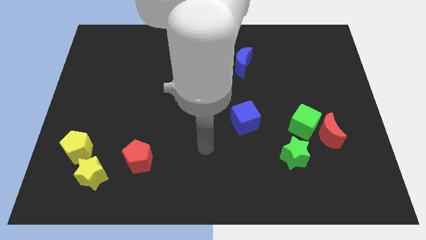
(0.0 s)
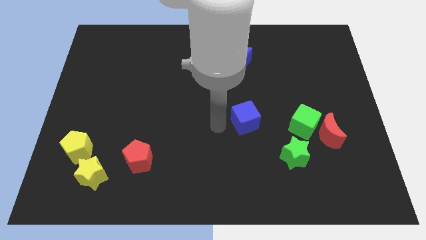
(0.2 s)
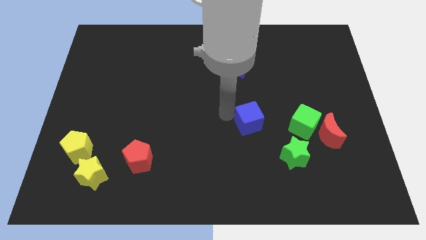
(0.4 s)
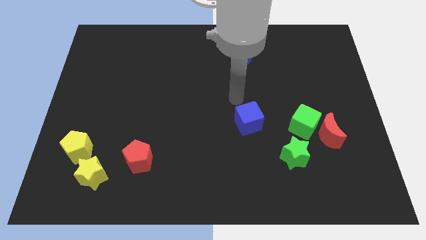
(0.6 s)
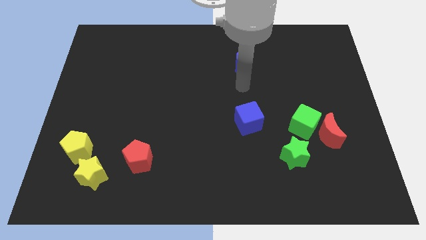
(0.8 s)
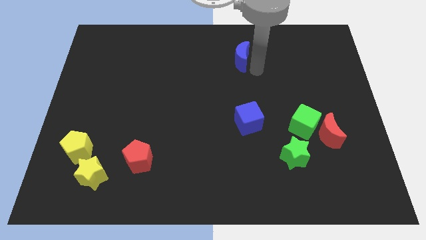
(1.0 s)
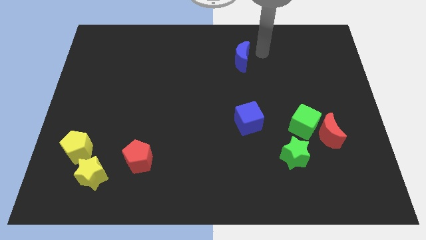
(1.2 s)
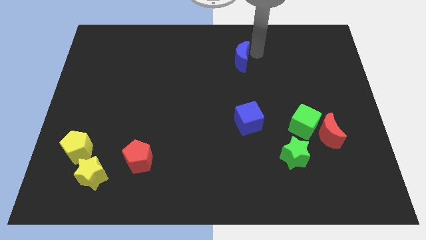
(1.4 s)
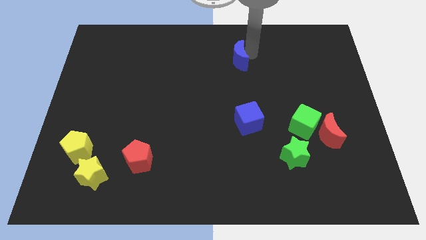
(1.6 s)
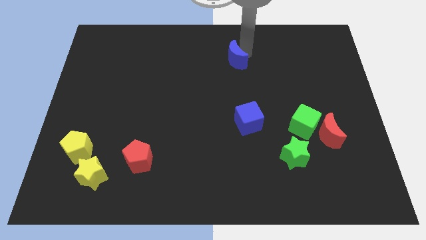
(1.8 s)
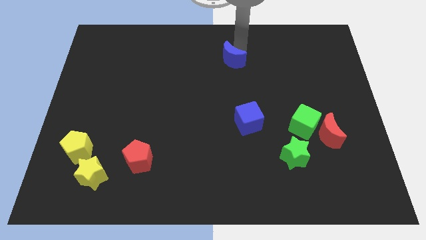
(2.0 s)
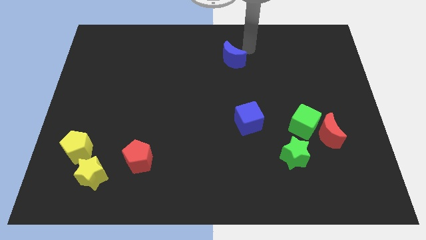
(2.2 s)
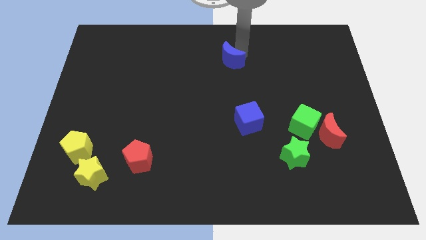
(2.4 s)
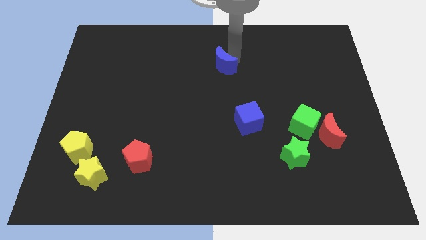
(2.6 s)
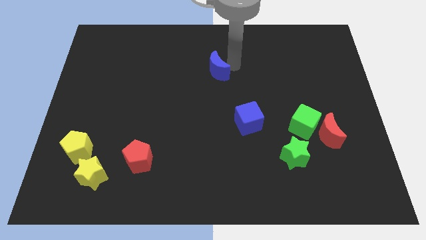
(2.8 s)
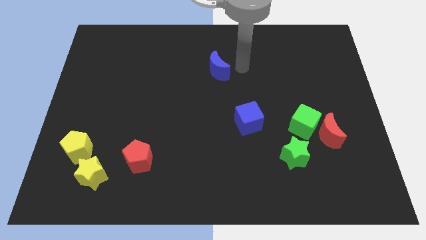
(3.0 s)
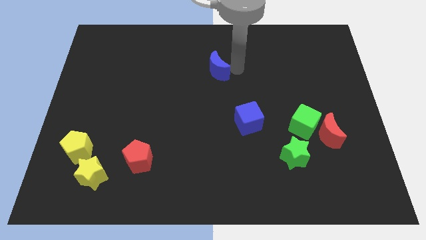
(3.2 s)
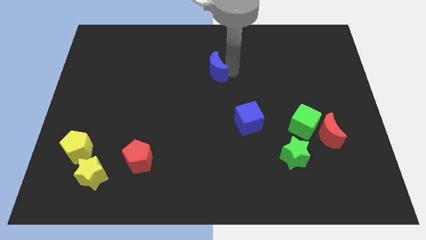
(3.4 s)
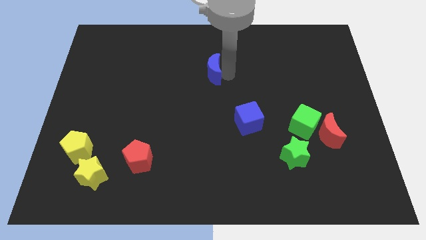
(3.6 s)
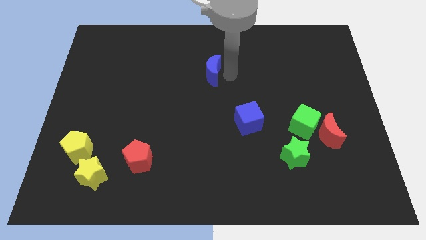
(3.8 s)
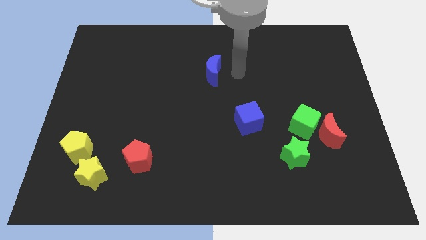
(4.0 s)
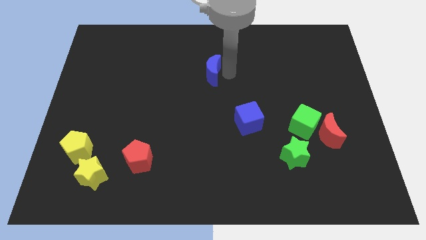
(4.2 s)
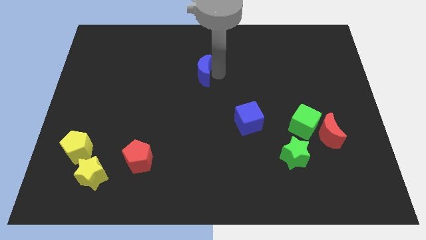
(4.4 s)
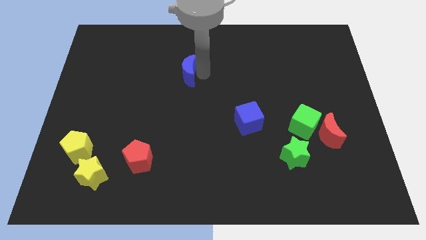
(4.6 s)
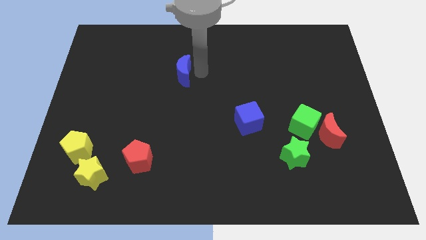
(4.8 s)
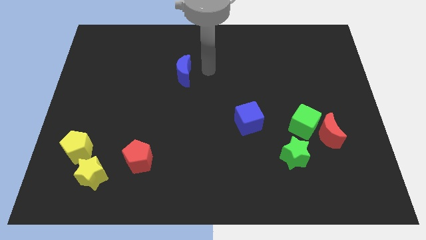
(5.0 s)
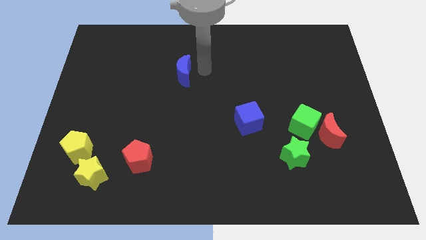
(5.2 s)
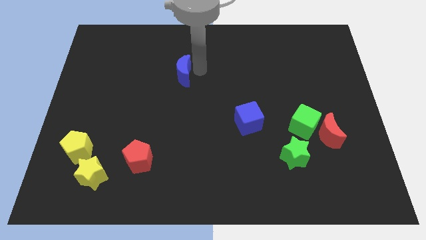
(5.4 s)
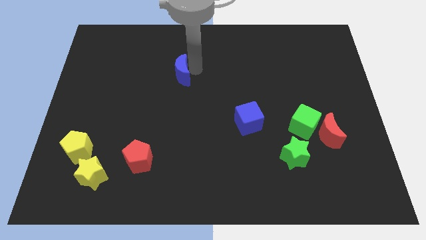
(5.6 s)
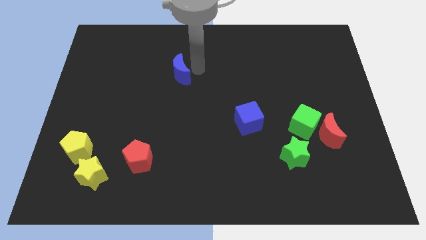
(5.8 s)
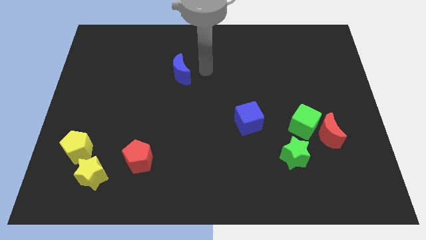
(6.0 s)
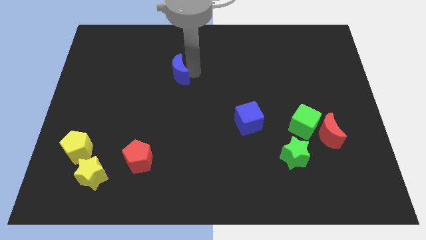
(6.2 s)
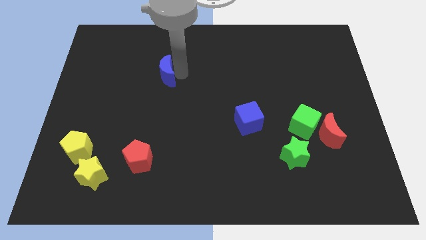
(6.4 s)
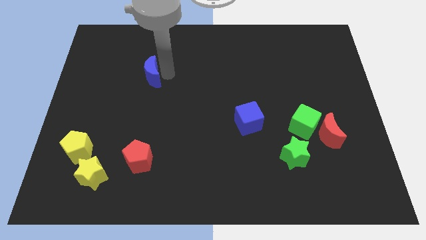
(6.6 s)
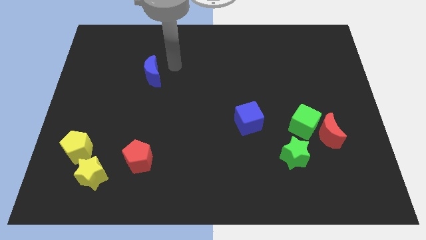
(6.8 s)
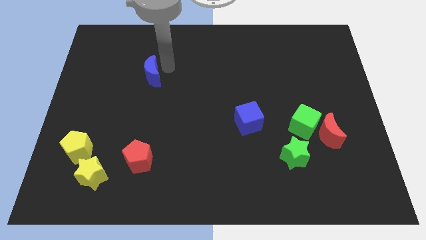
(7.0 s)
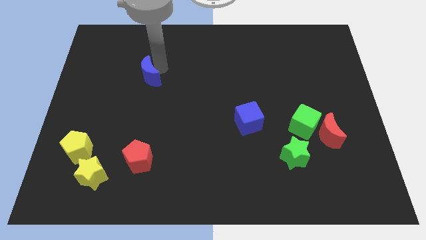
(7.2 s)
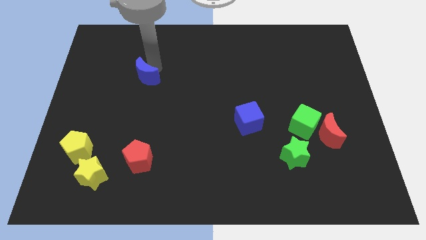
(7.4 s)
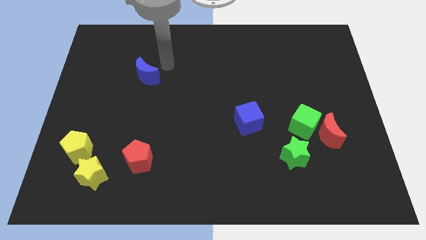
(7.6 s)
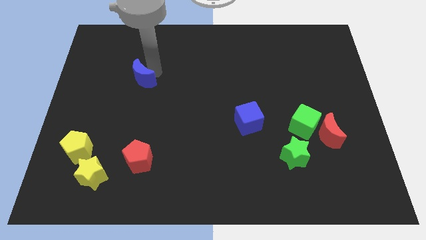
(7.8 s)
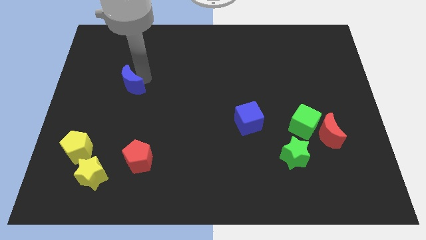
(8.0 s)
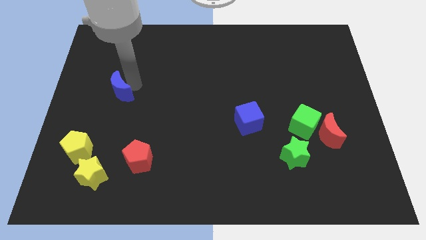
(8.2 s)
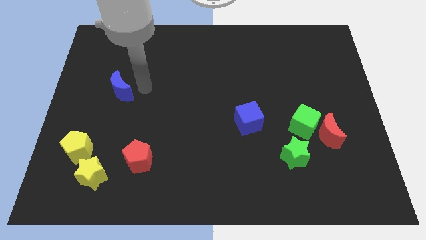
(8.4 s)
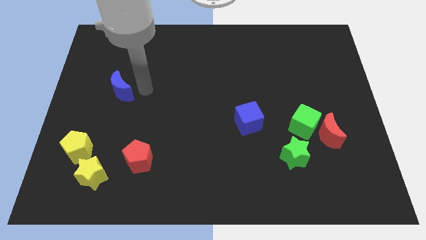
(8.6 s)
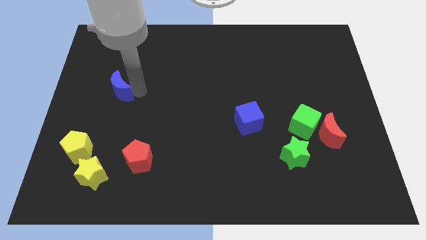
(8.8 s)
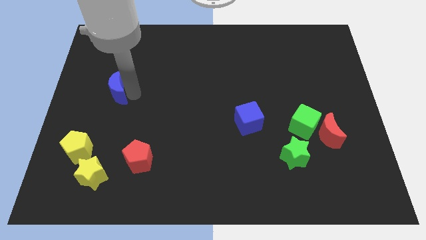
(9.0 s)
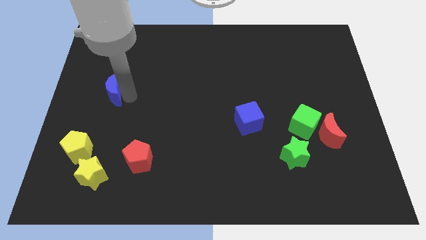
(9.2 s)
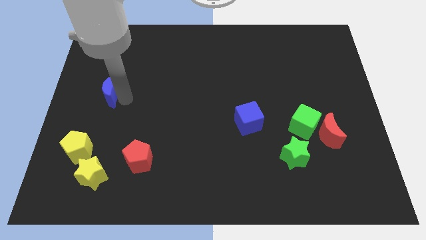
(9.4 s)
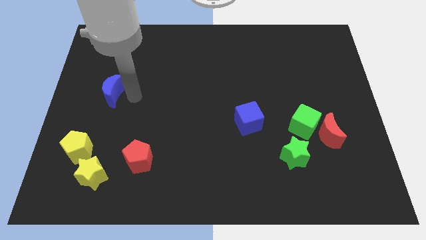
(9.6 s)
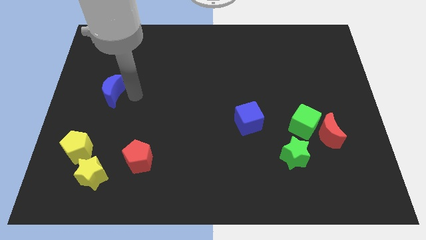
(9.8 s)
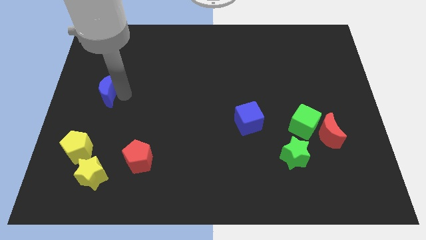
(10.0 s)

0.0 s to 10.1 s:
move the blue moon to the center left

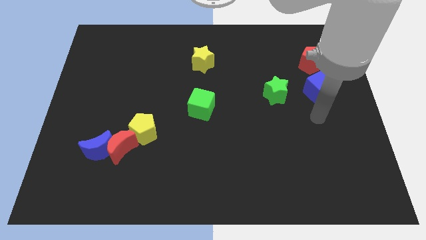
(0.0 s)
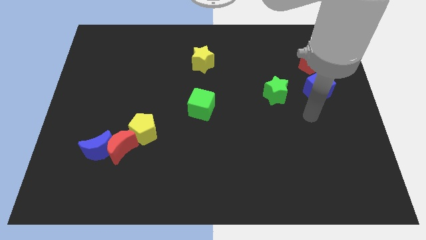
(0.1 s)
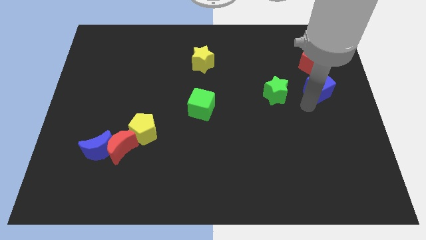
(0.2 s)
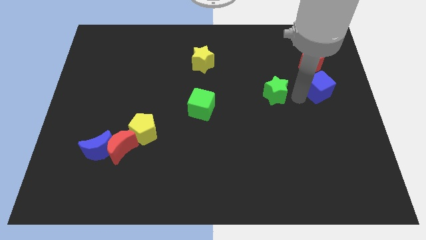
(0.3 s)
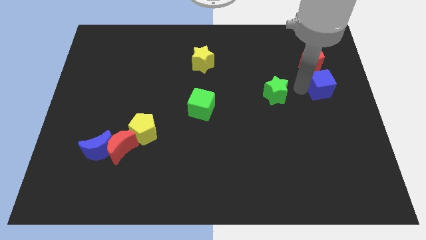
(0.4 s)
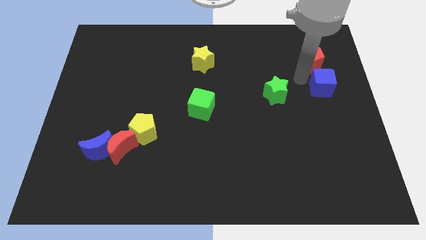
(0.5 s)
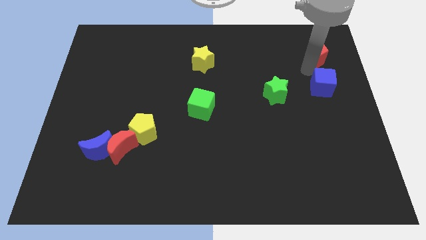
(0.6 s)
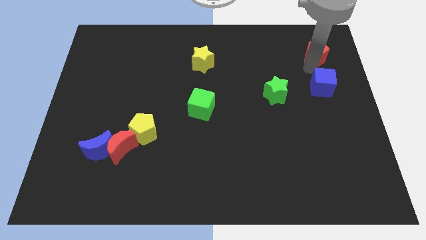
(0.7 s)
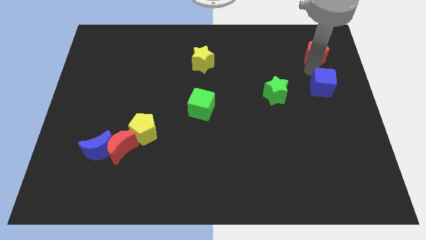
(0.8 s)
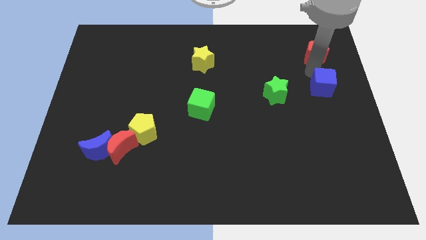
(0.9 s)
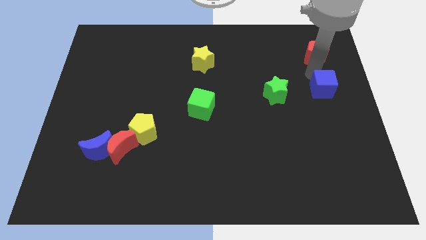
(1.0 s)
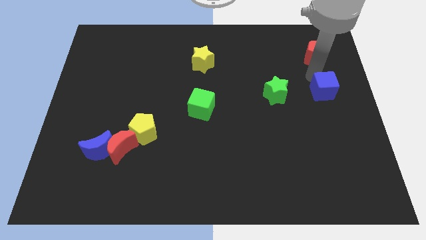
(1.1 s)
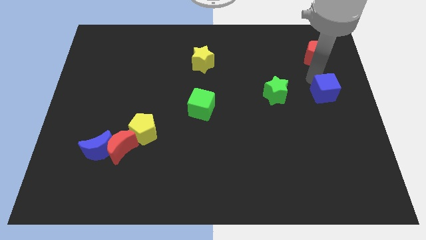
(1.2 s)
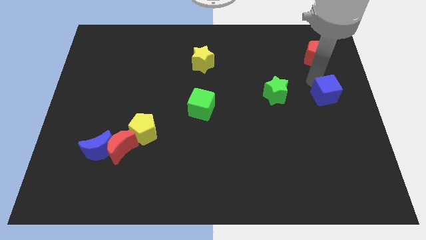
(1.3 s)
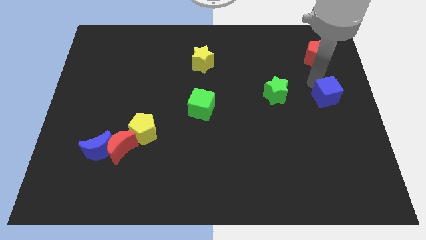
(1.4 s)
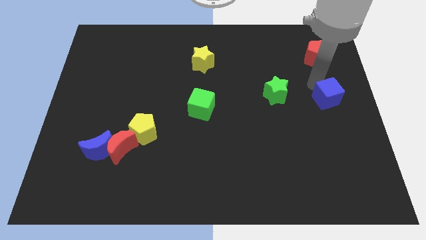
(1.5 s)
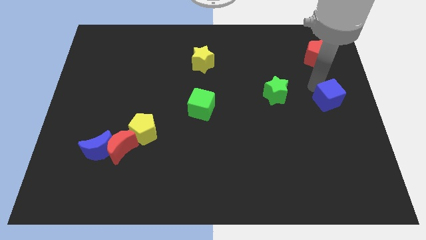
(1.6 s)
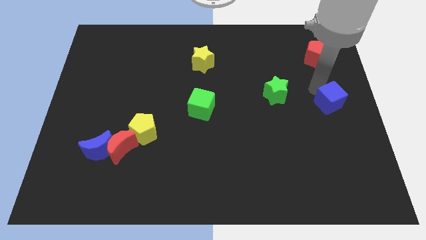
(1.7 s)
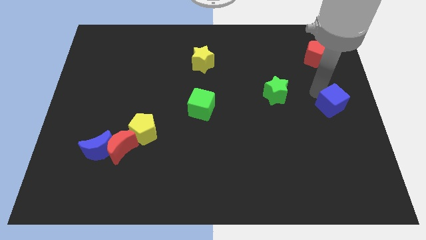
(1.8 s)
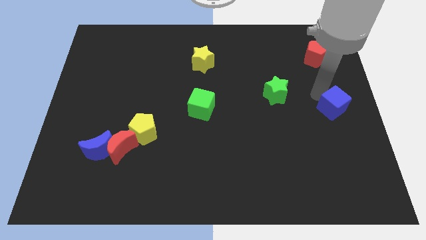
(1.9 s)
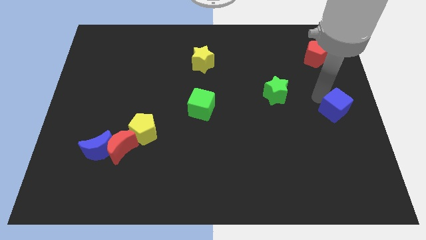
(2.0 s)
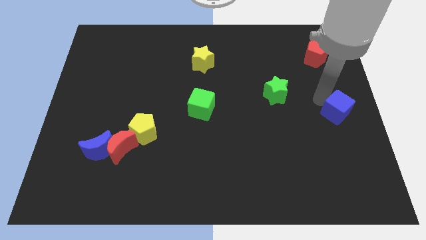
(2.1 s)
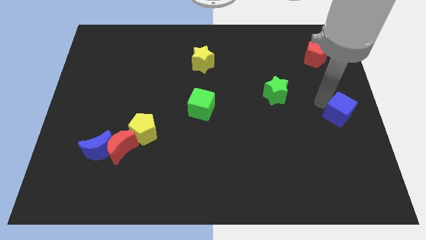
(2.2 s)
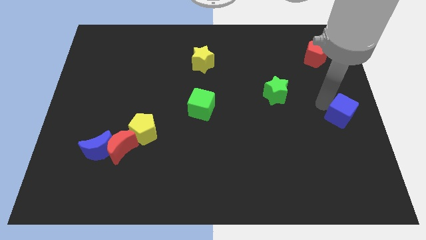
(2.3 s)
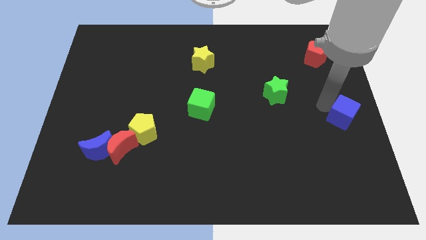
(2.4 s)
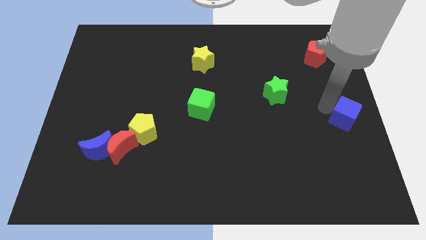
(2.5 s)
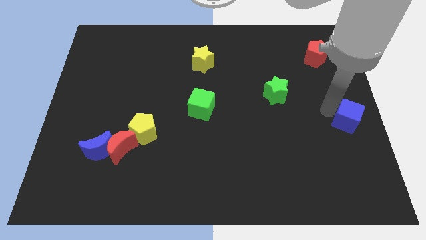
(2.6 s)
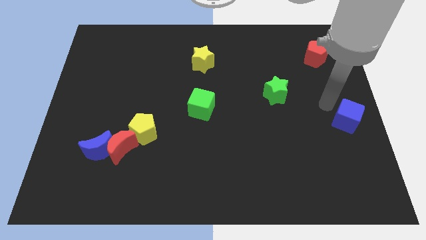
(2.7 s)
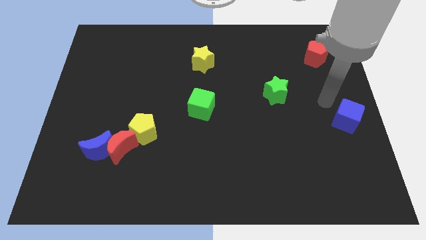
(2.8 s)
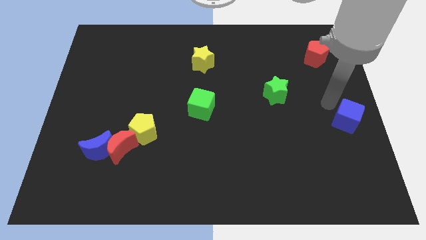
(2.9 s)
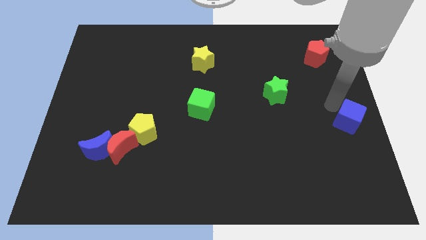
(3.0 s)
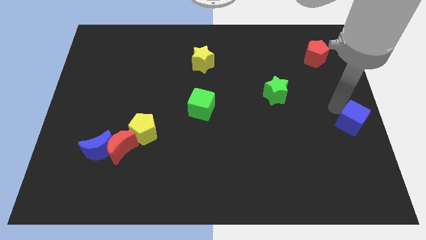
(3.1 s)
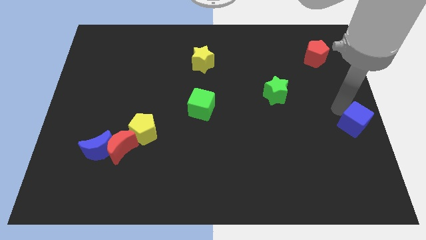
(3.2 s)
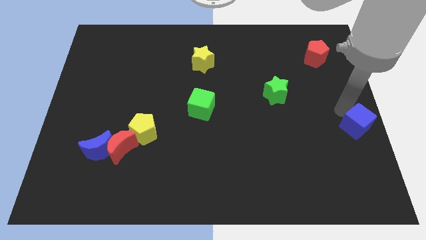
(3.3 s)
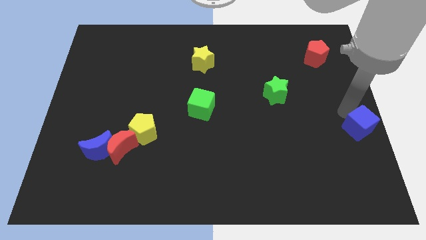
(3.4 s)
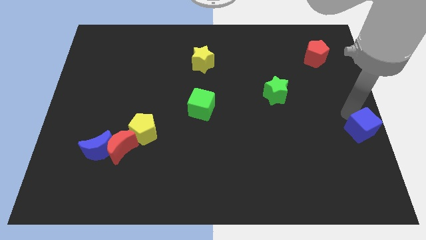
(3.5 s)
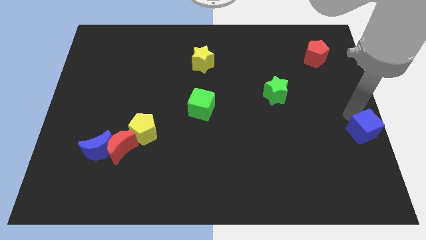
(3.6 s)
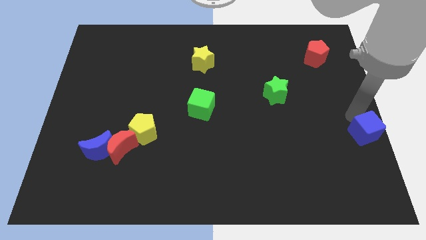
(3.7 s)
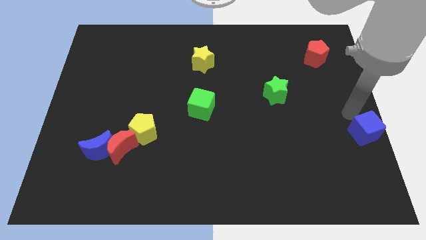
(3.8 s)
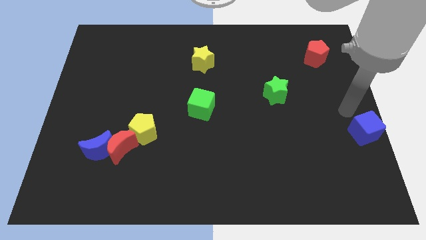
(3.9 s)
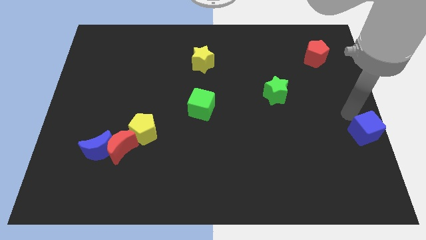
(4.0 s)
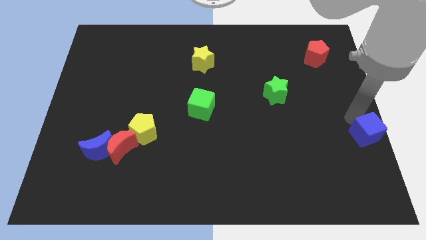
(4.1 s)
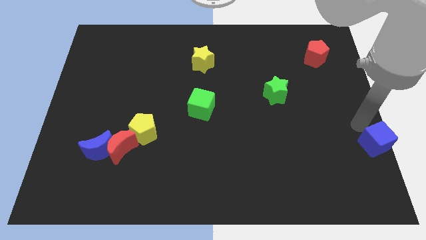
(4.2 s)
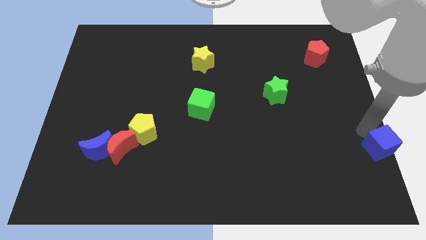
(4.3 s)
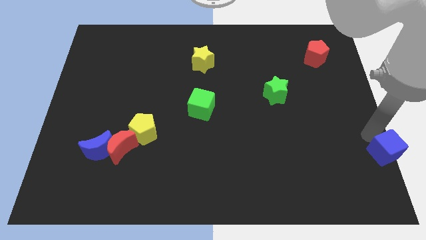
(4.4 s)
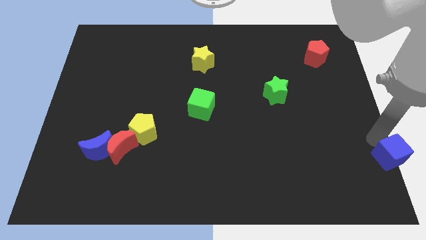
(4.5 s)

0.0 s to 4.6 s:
move the blue cube to the bottom right of the board
